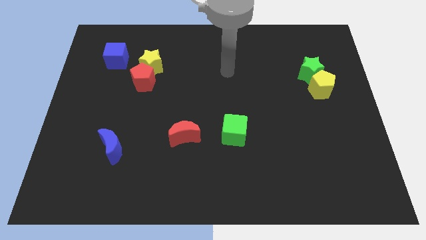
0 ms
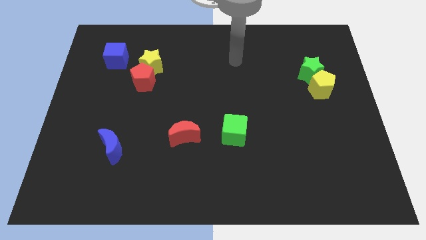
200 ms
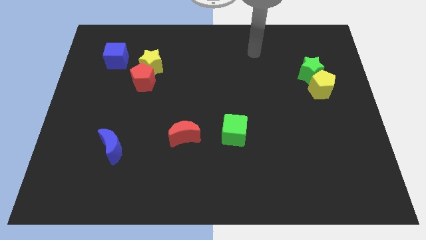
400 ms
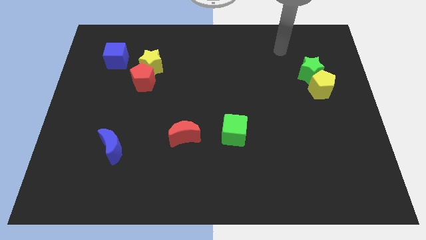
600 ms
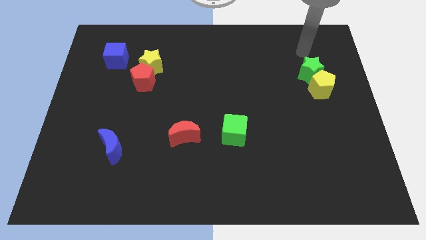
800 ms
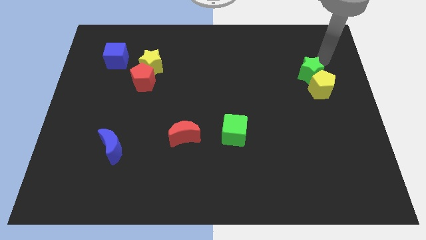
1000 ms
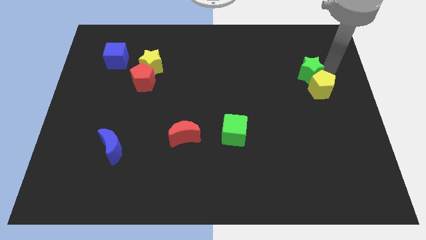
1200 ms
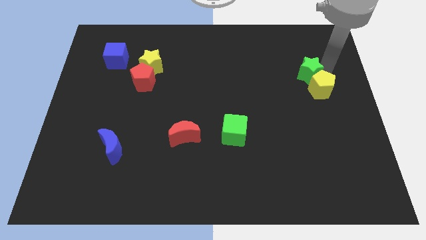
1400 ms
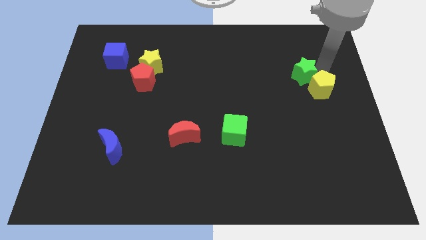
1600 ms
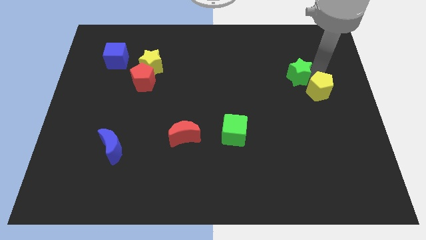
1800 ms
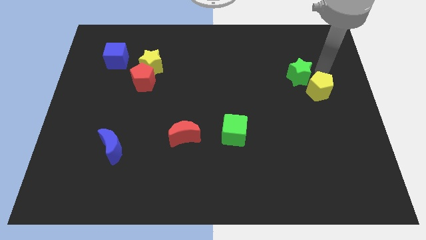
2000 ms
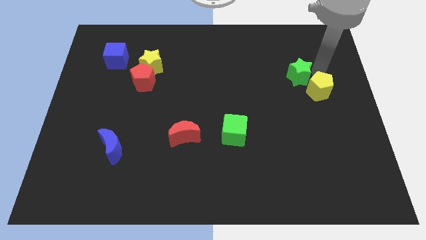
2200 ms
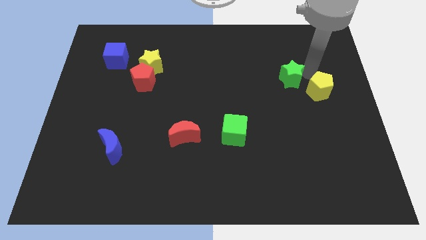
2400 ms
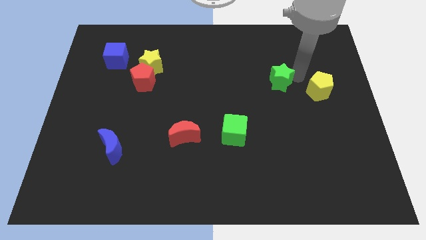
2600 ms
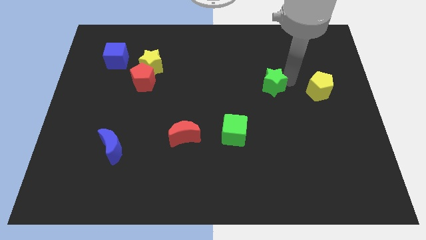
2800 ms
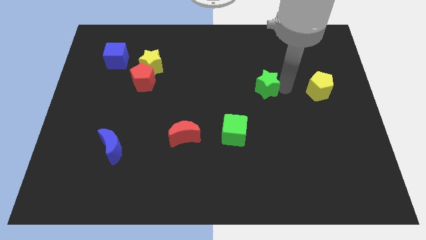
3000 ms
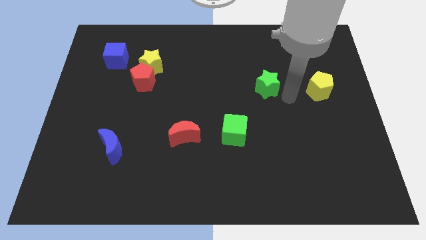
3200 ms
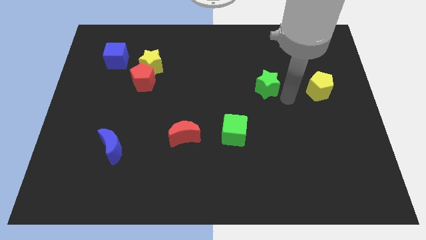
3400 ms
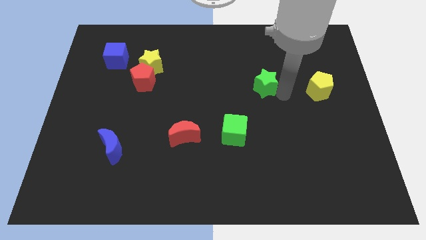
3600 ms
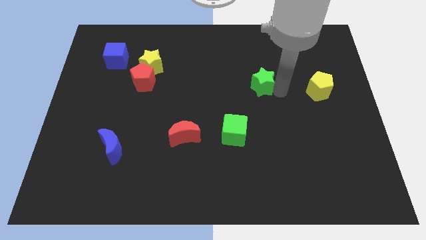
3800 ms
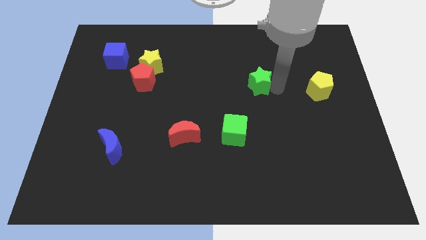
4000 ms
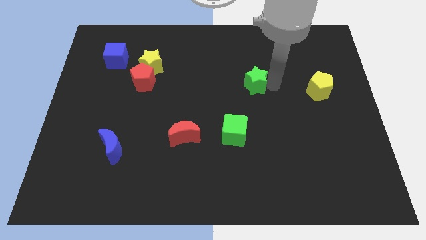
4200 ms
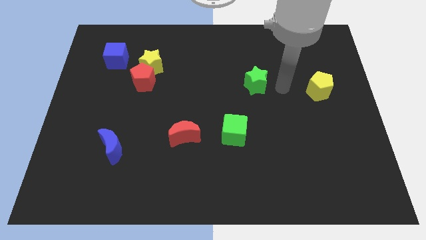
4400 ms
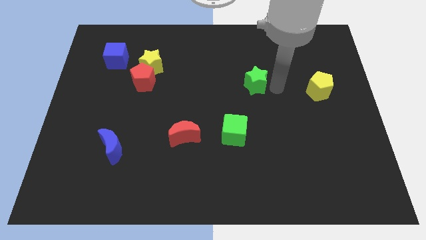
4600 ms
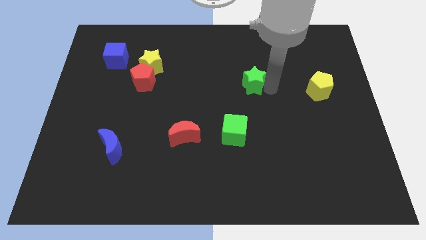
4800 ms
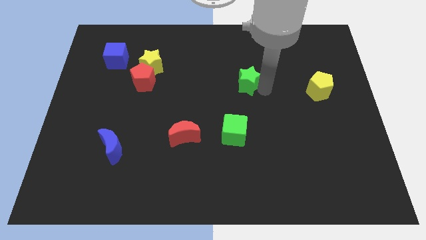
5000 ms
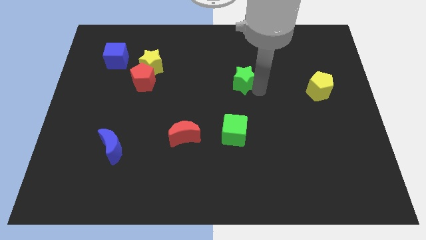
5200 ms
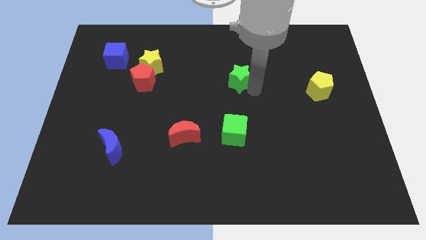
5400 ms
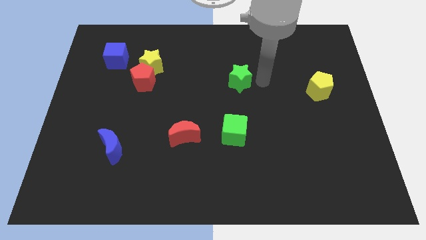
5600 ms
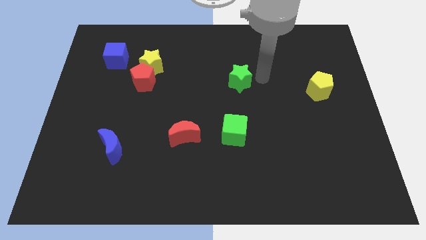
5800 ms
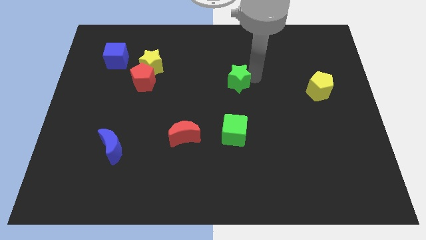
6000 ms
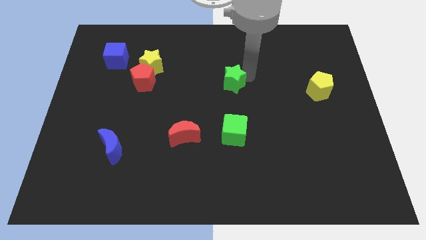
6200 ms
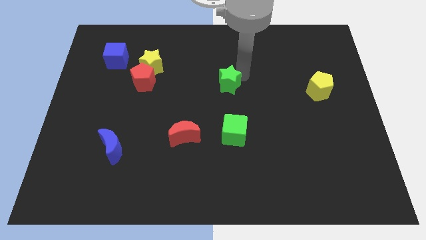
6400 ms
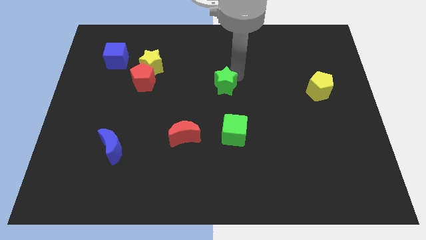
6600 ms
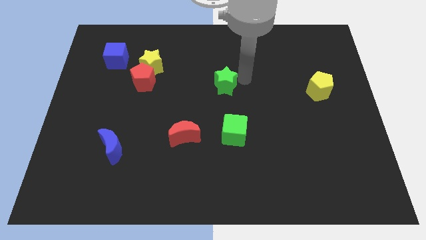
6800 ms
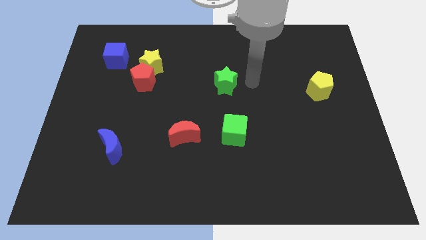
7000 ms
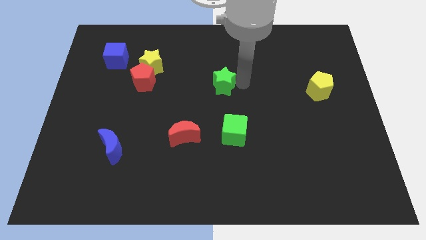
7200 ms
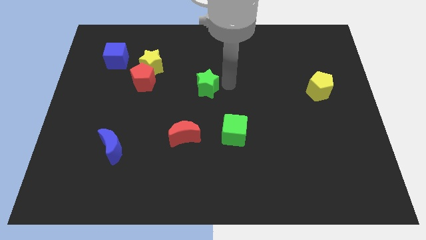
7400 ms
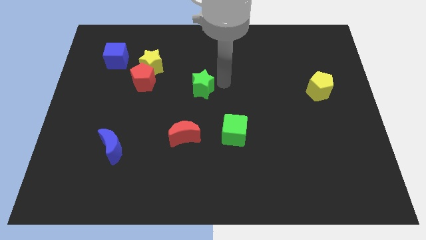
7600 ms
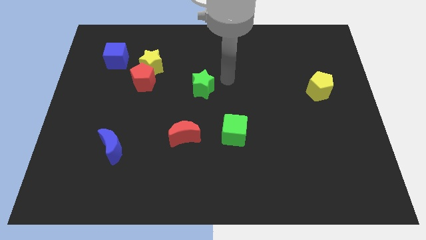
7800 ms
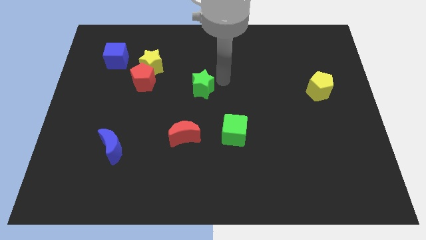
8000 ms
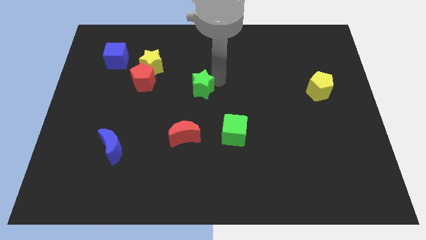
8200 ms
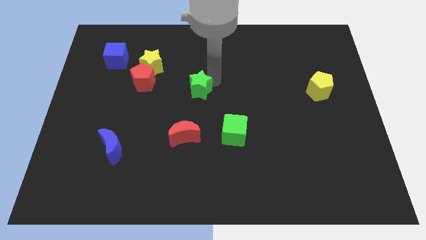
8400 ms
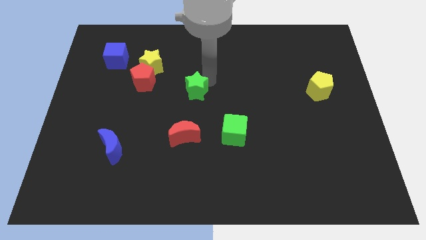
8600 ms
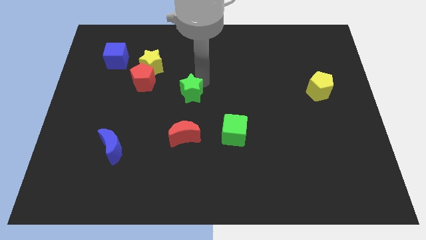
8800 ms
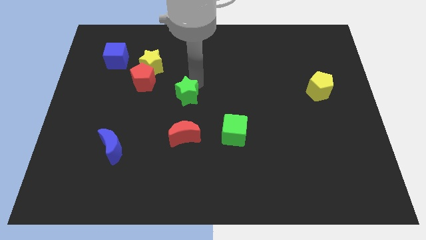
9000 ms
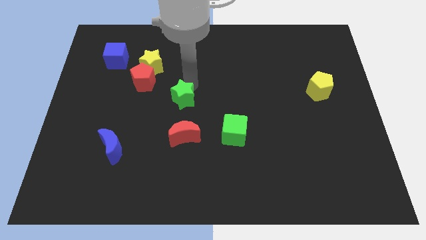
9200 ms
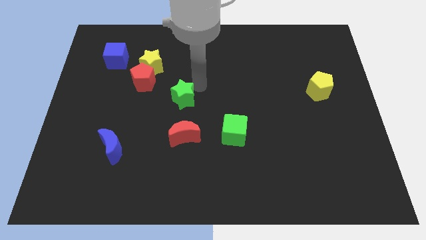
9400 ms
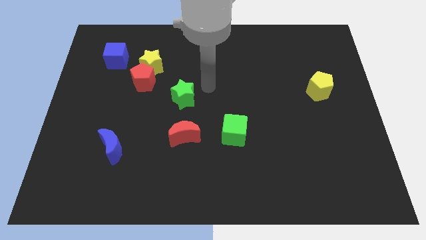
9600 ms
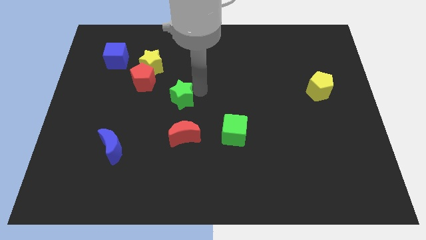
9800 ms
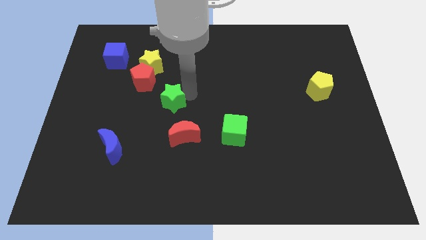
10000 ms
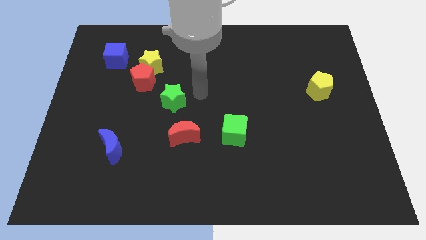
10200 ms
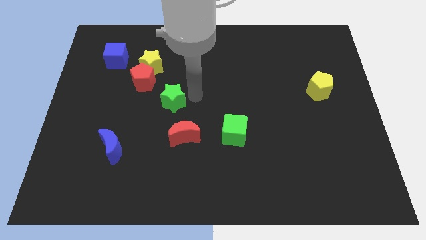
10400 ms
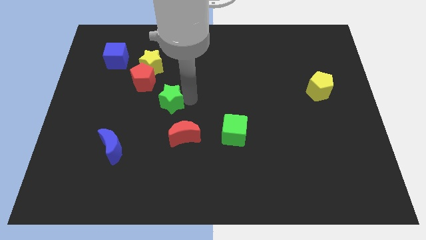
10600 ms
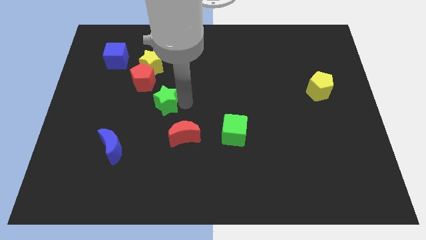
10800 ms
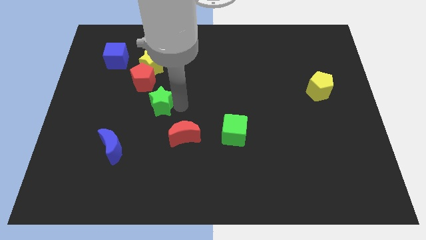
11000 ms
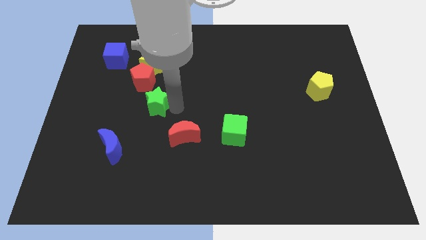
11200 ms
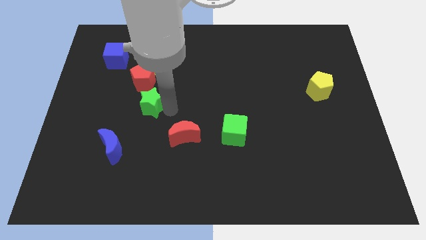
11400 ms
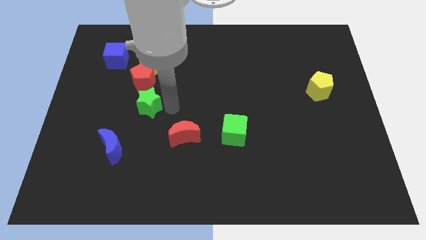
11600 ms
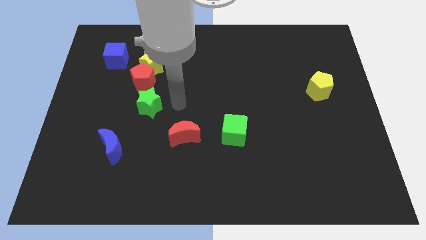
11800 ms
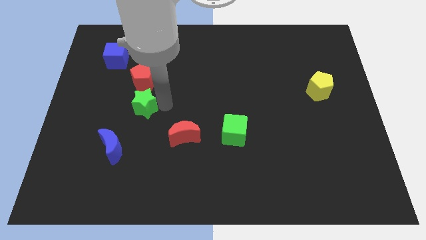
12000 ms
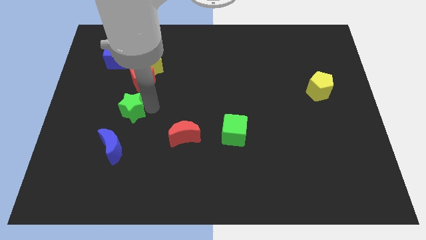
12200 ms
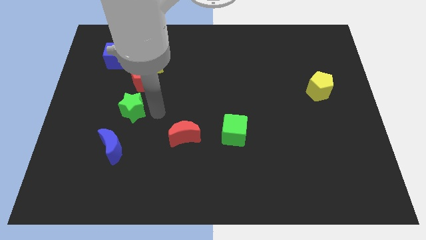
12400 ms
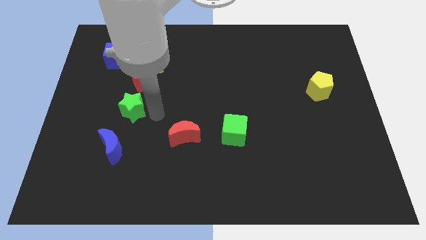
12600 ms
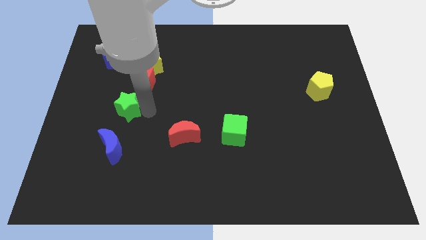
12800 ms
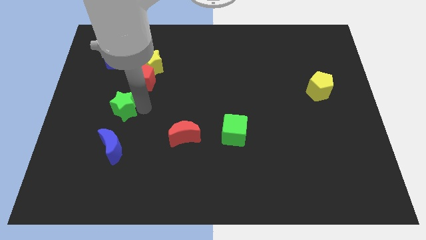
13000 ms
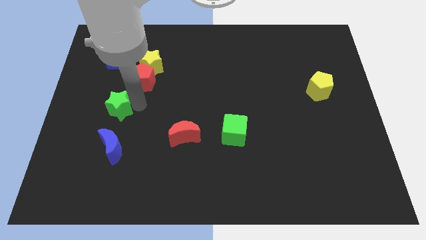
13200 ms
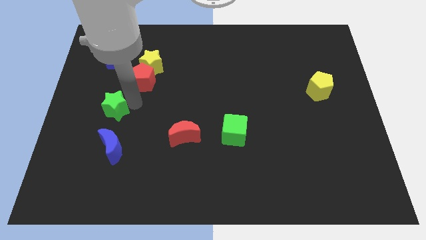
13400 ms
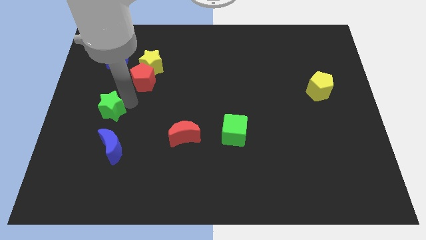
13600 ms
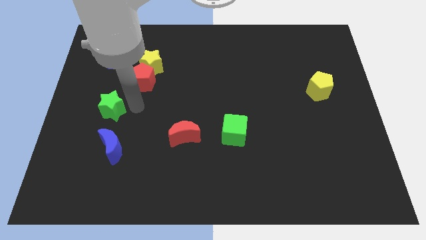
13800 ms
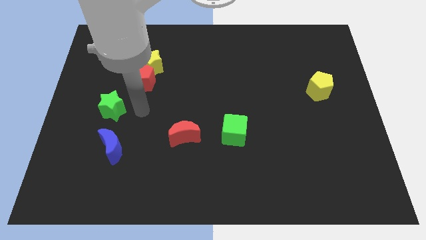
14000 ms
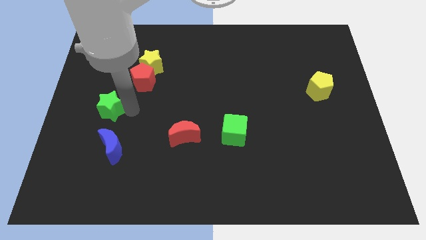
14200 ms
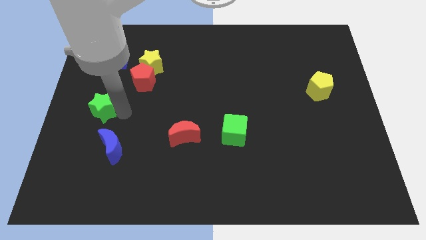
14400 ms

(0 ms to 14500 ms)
push the green star to the left side of the board
